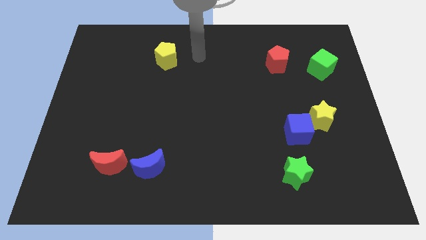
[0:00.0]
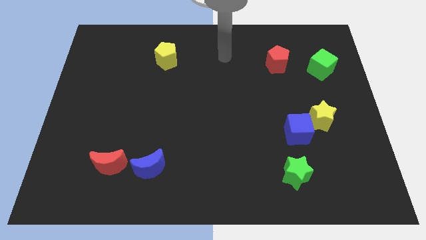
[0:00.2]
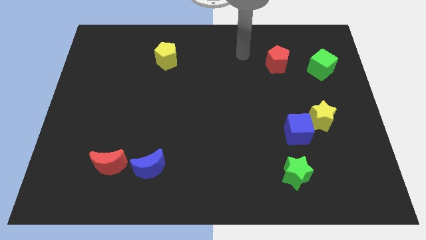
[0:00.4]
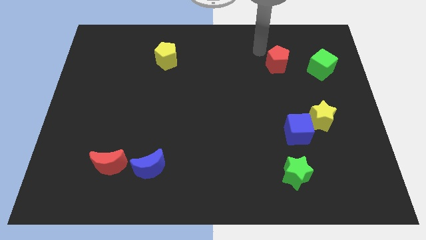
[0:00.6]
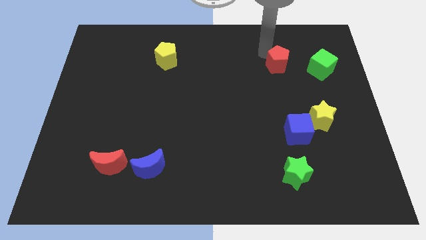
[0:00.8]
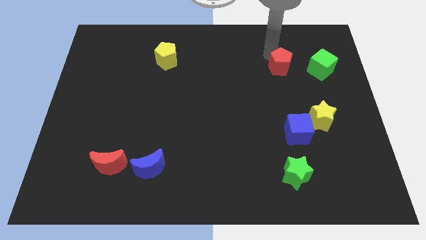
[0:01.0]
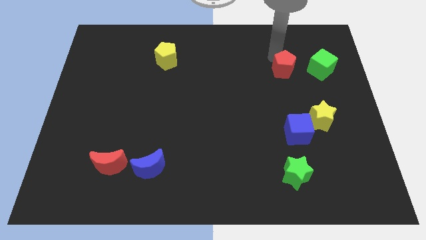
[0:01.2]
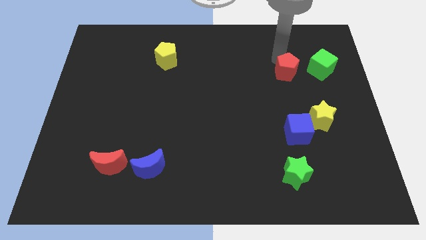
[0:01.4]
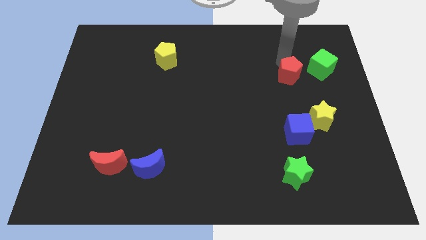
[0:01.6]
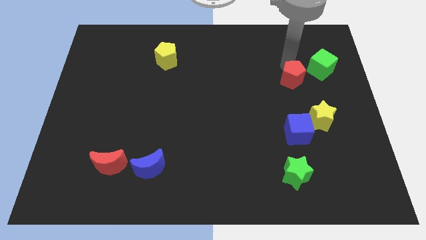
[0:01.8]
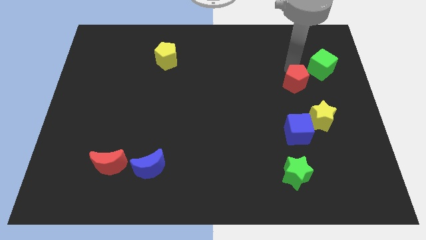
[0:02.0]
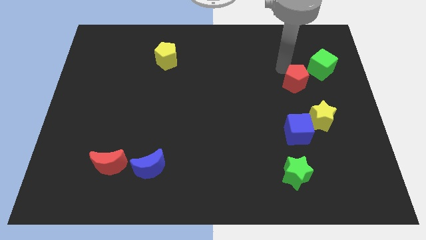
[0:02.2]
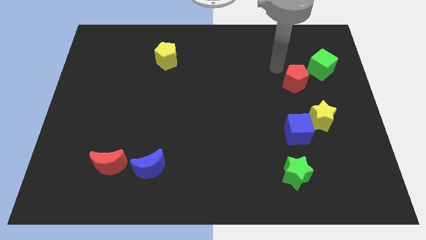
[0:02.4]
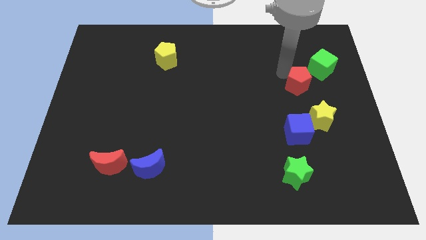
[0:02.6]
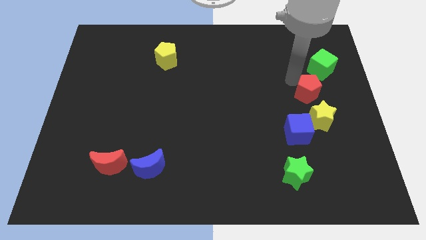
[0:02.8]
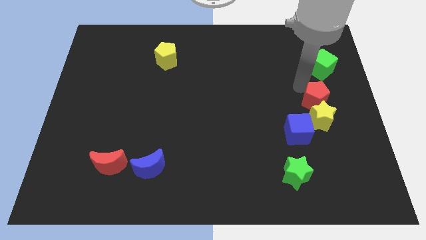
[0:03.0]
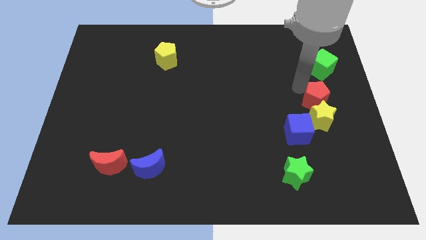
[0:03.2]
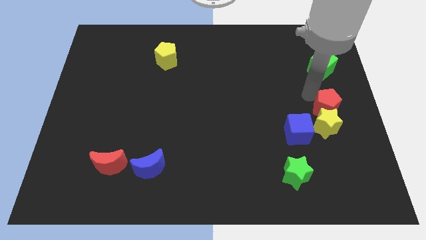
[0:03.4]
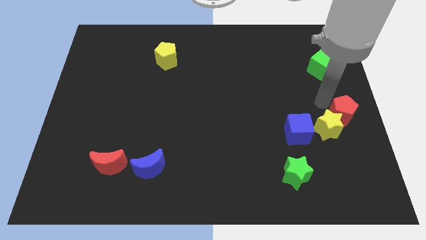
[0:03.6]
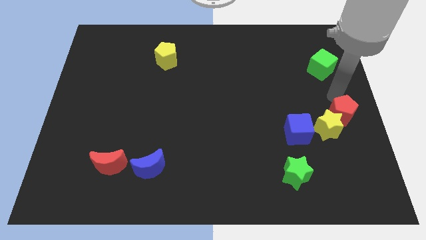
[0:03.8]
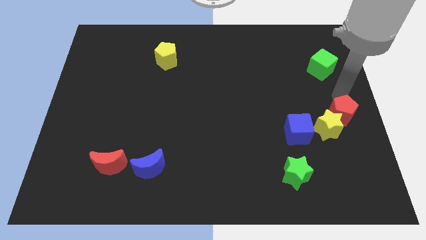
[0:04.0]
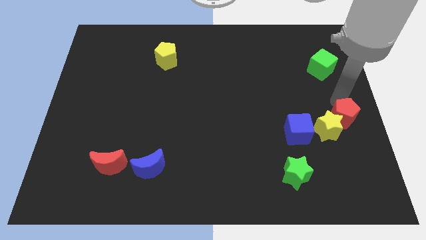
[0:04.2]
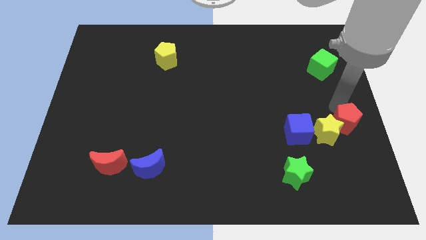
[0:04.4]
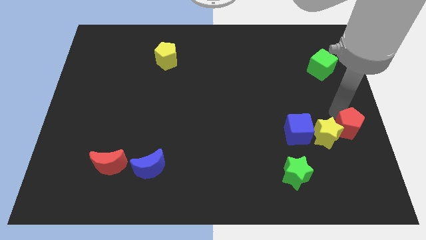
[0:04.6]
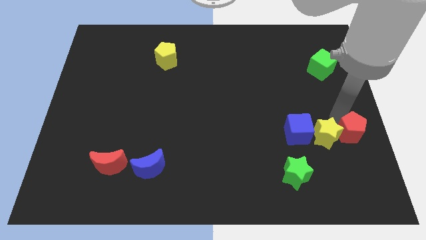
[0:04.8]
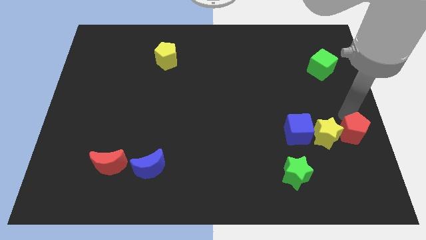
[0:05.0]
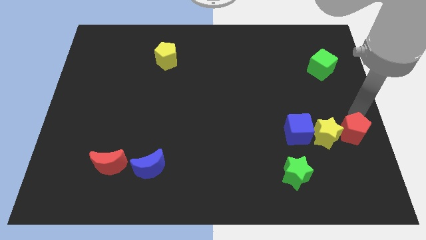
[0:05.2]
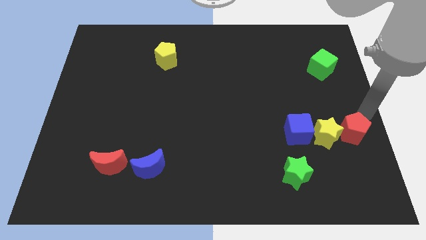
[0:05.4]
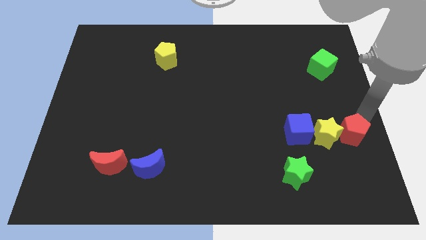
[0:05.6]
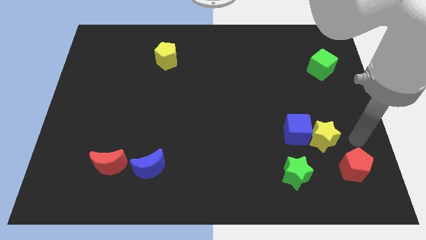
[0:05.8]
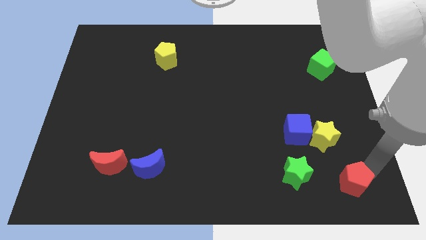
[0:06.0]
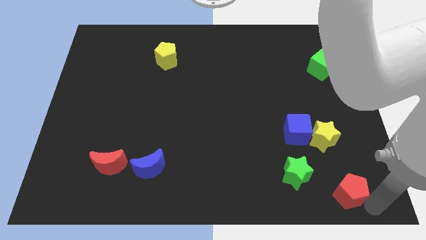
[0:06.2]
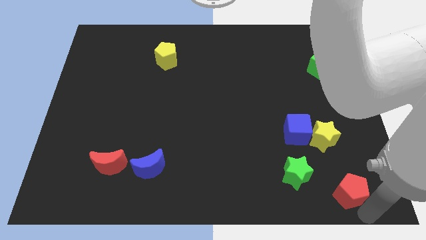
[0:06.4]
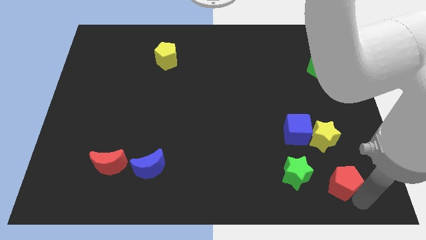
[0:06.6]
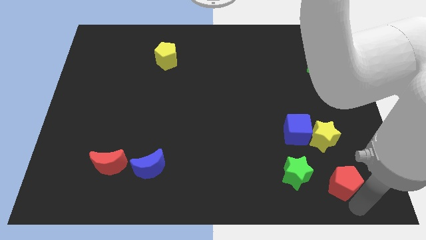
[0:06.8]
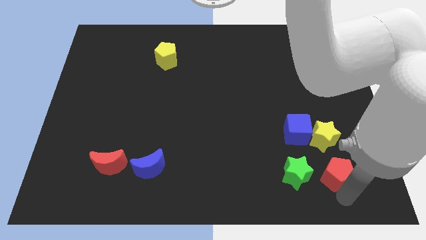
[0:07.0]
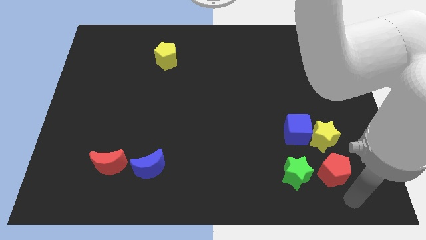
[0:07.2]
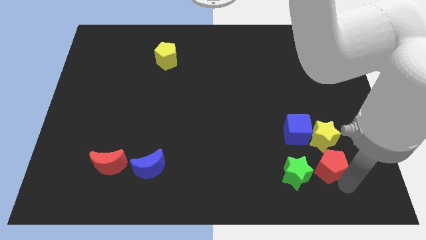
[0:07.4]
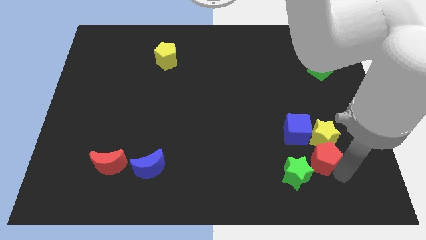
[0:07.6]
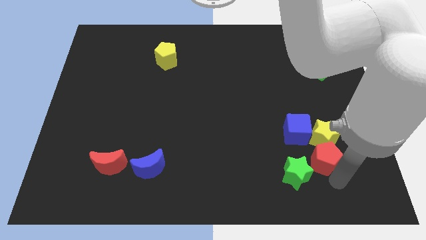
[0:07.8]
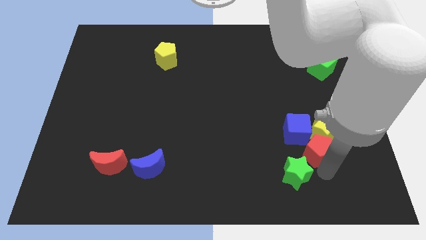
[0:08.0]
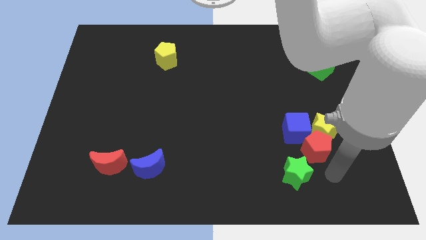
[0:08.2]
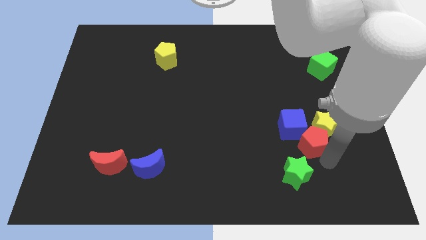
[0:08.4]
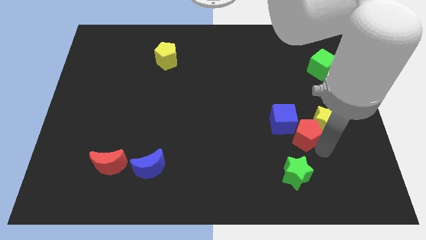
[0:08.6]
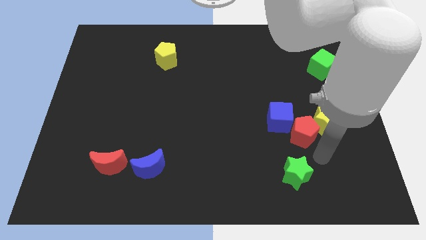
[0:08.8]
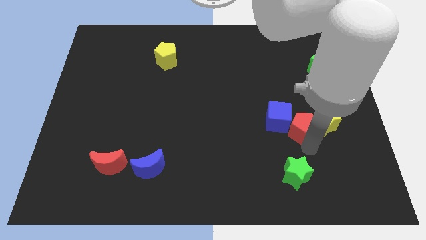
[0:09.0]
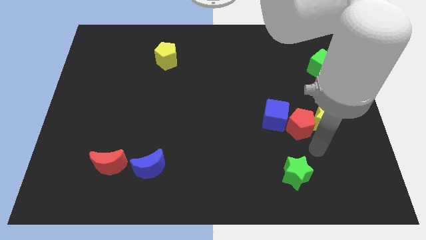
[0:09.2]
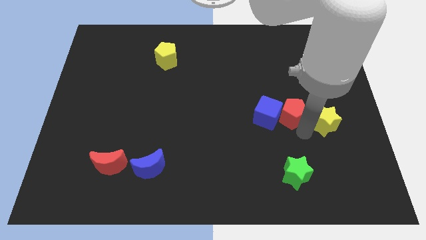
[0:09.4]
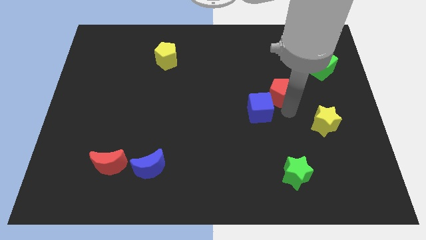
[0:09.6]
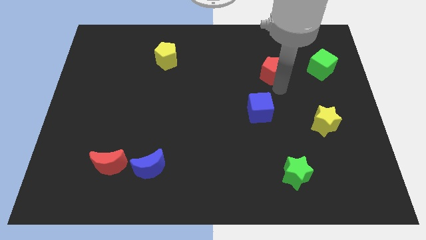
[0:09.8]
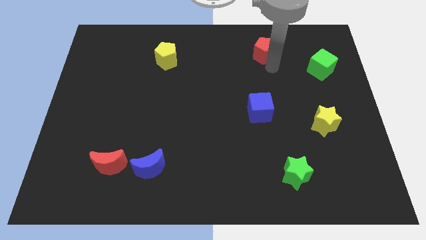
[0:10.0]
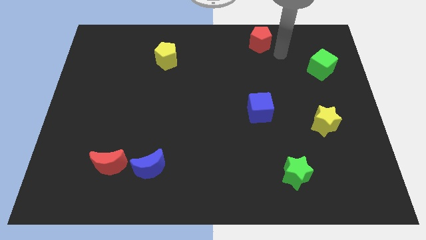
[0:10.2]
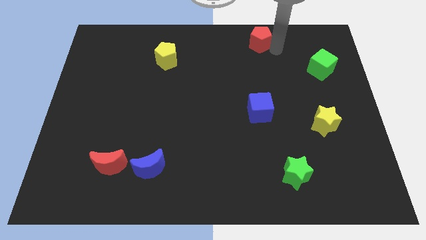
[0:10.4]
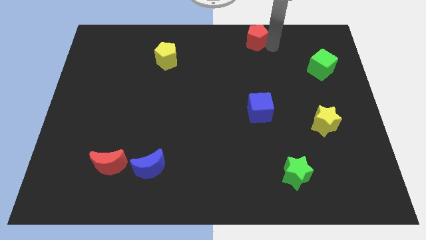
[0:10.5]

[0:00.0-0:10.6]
move the red pentagon to the top

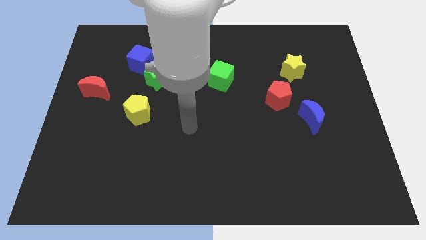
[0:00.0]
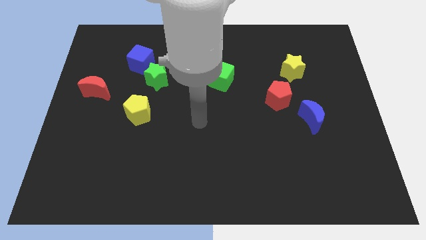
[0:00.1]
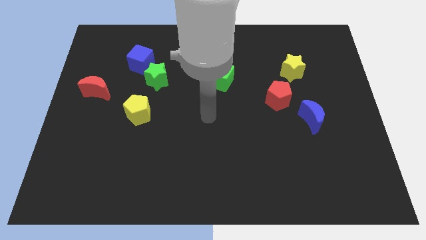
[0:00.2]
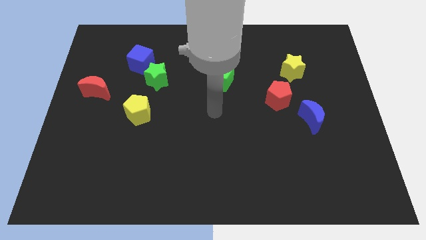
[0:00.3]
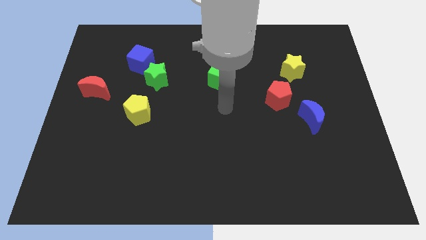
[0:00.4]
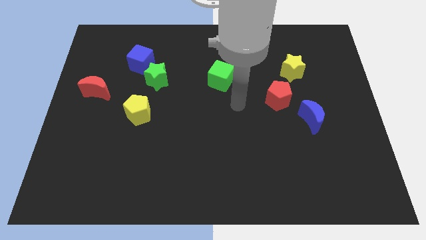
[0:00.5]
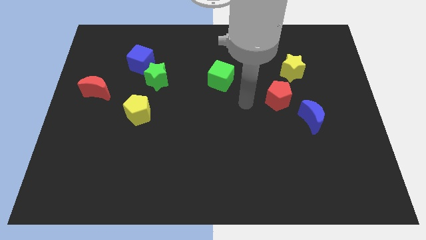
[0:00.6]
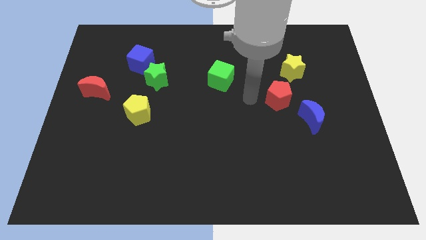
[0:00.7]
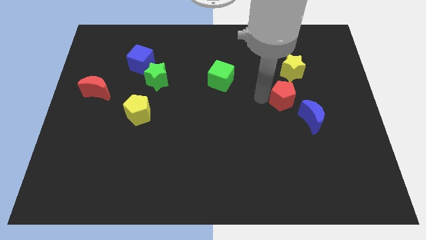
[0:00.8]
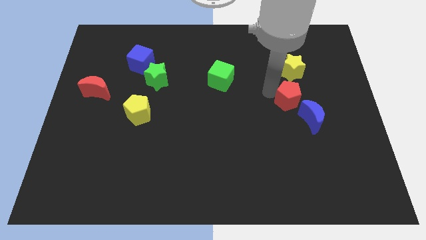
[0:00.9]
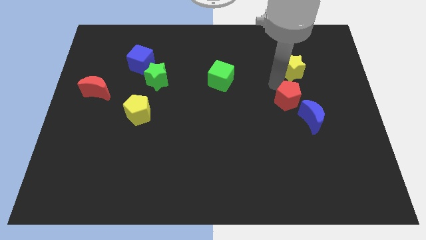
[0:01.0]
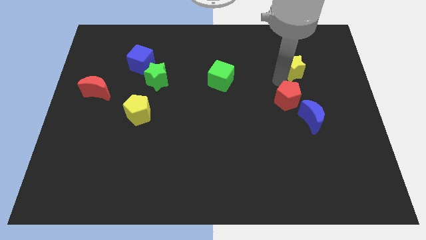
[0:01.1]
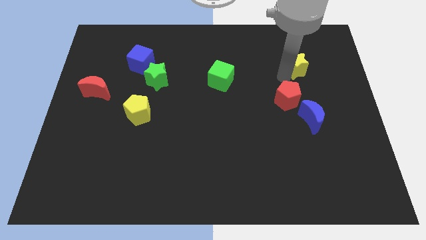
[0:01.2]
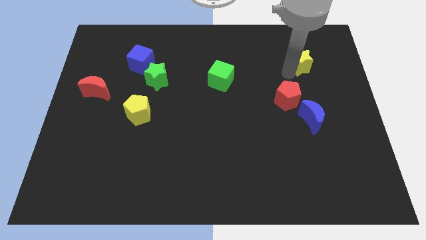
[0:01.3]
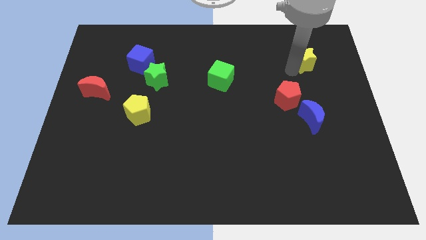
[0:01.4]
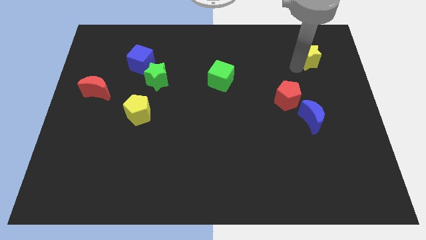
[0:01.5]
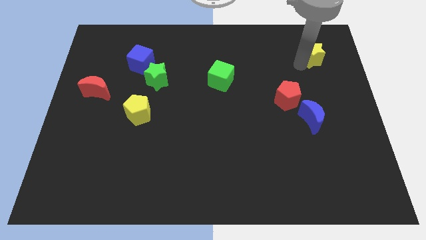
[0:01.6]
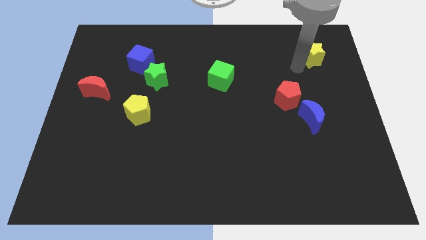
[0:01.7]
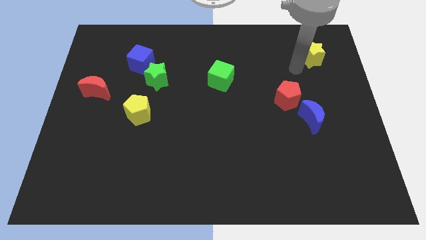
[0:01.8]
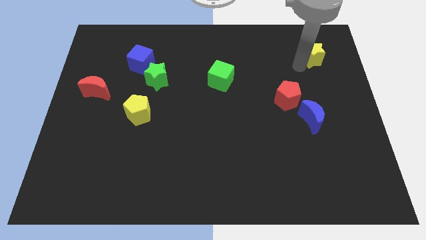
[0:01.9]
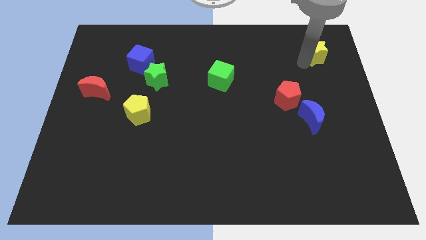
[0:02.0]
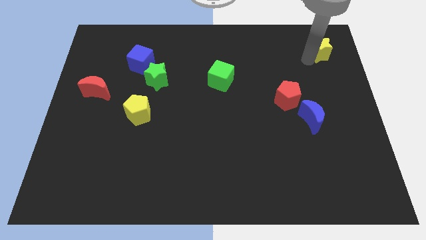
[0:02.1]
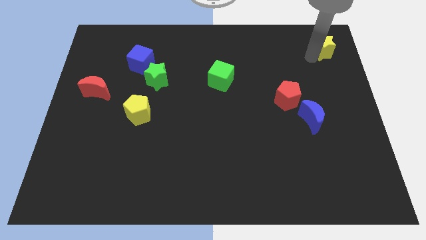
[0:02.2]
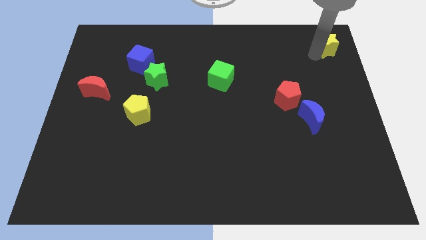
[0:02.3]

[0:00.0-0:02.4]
slide the yellow star to the top right
